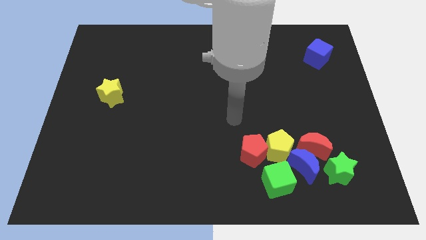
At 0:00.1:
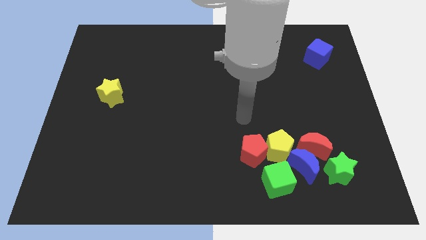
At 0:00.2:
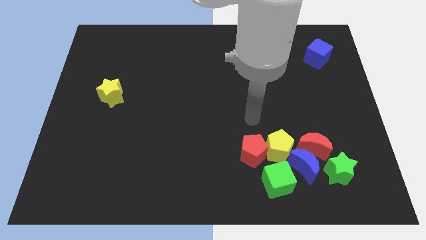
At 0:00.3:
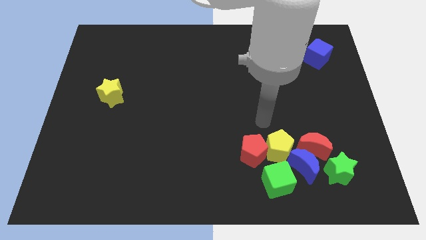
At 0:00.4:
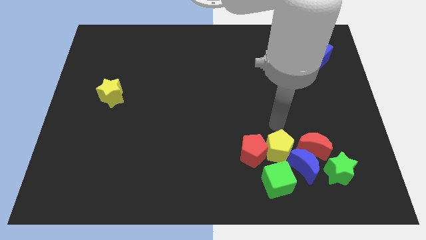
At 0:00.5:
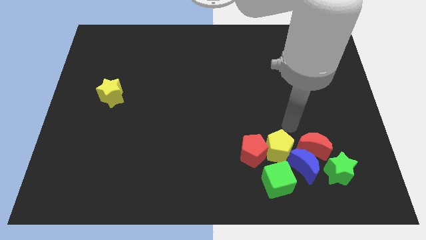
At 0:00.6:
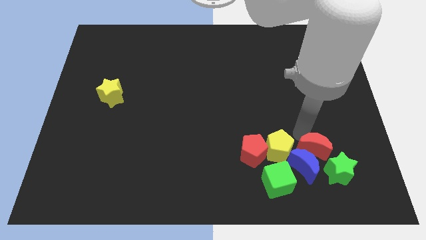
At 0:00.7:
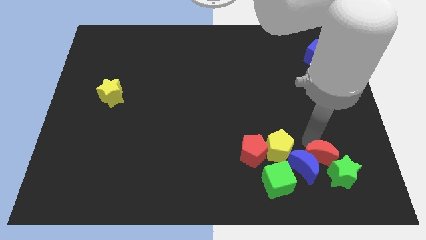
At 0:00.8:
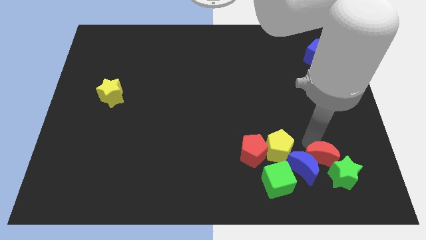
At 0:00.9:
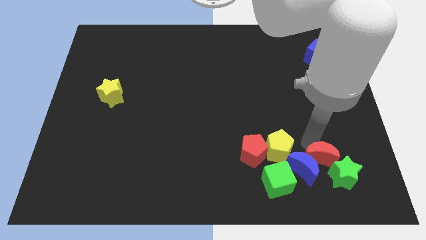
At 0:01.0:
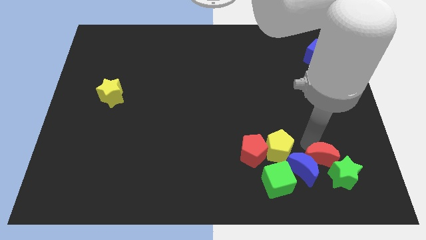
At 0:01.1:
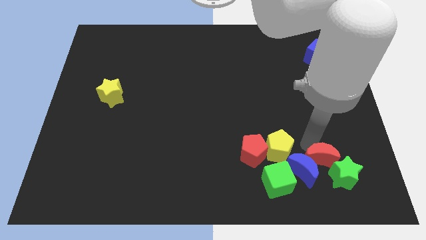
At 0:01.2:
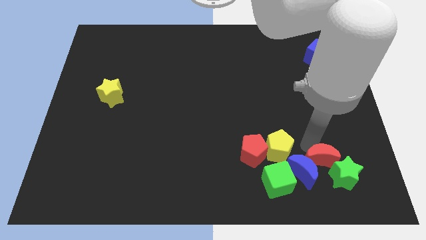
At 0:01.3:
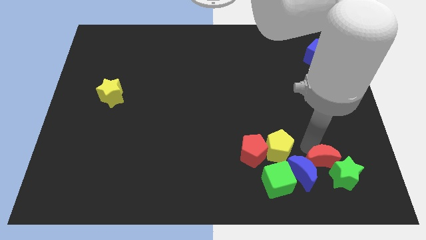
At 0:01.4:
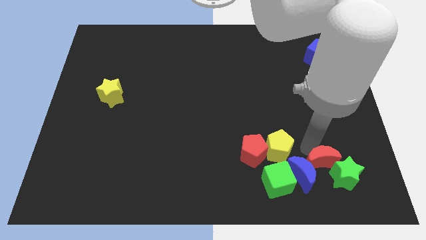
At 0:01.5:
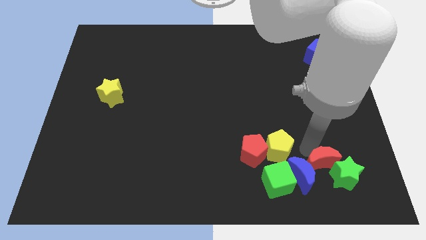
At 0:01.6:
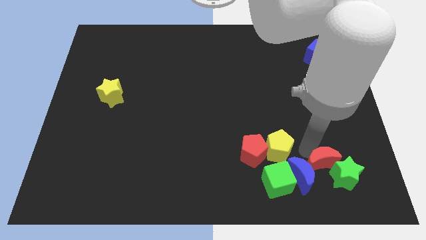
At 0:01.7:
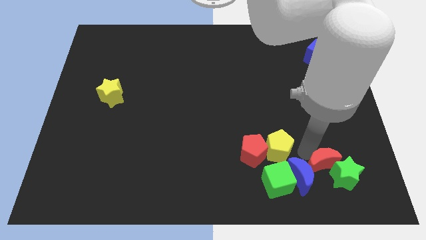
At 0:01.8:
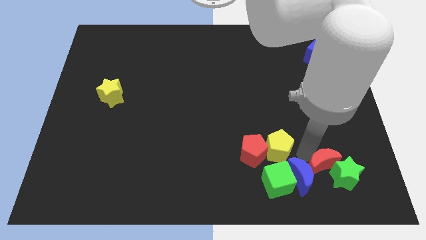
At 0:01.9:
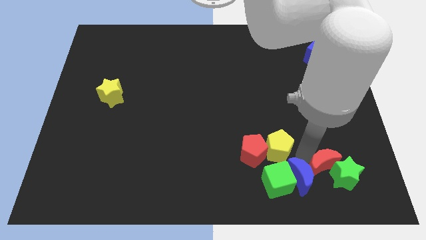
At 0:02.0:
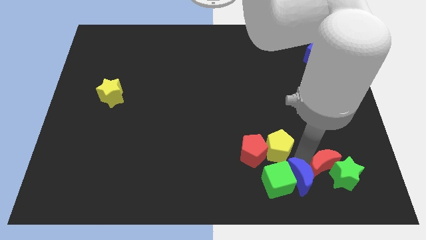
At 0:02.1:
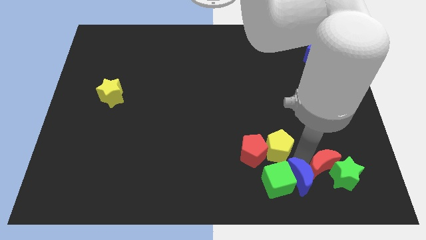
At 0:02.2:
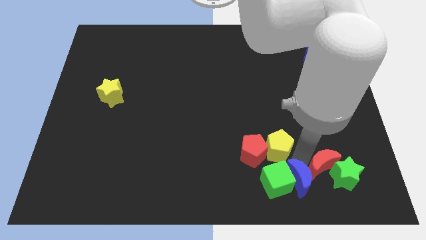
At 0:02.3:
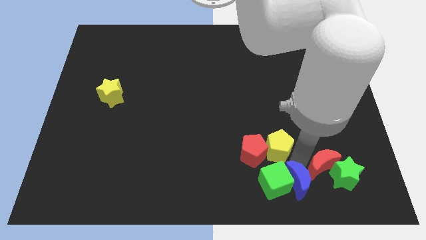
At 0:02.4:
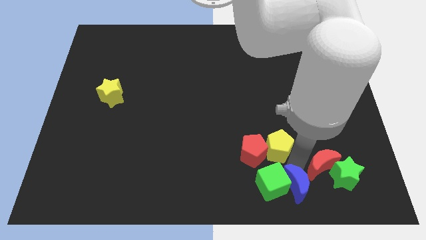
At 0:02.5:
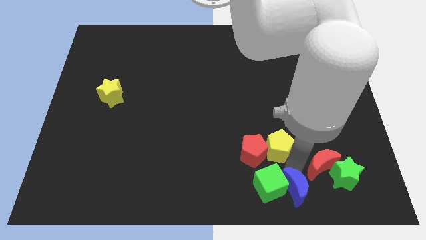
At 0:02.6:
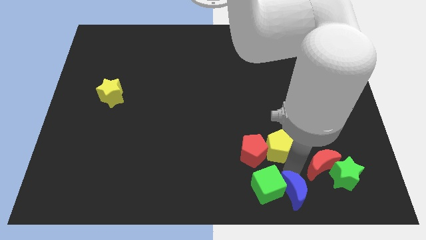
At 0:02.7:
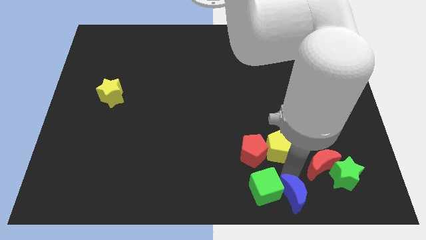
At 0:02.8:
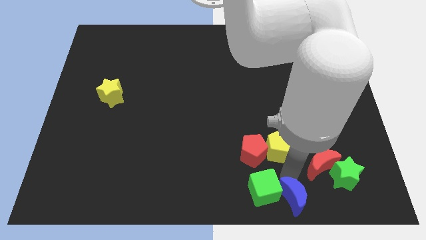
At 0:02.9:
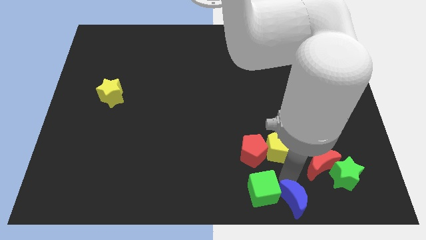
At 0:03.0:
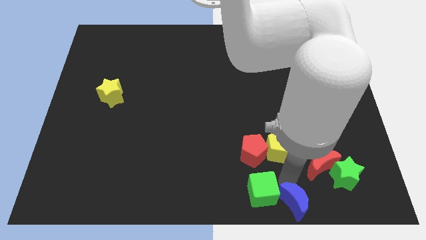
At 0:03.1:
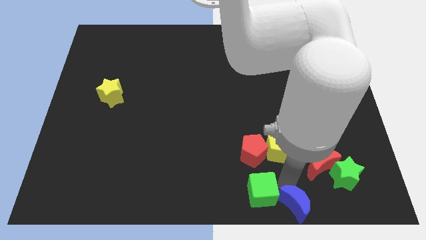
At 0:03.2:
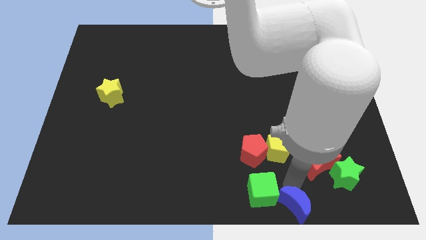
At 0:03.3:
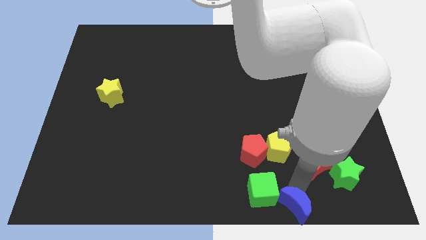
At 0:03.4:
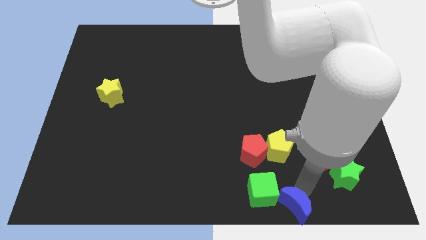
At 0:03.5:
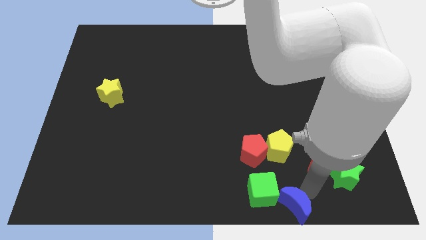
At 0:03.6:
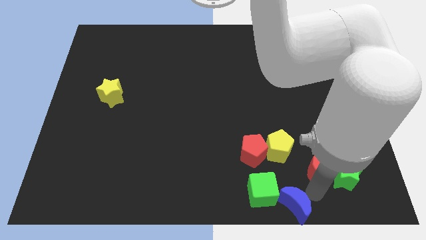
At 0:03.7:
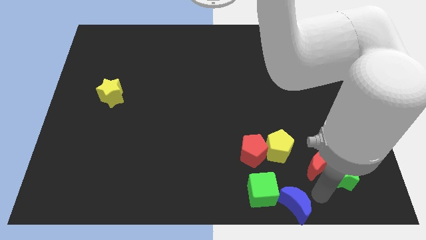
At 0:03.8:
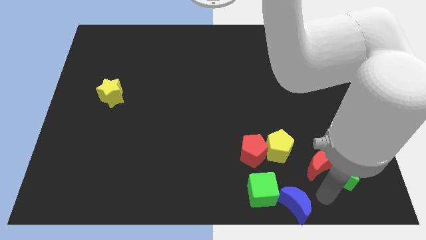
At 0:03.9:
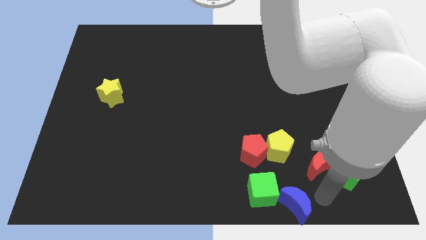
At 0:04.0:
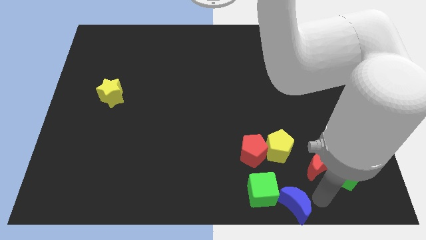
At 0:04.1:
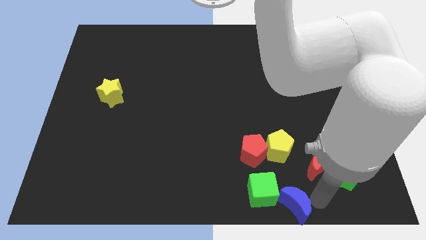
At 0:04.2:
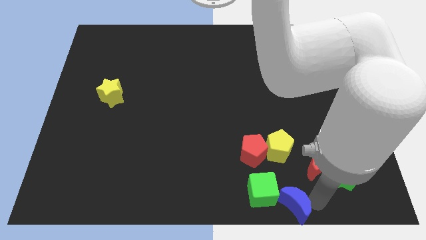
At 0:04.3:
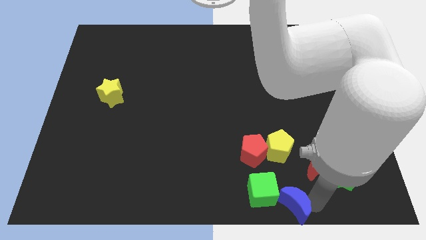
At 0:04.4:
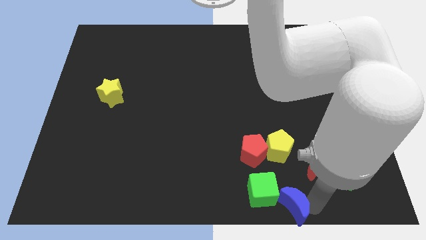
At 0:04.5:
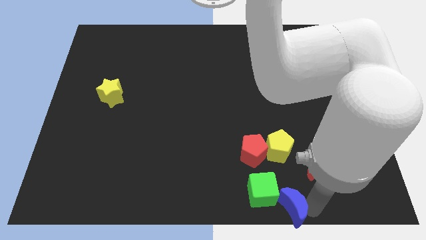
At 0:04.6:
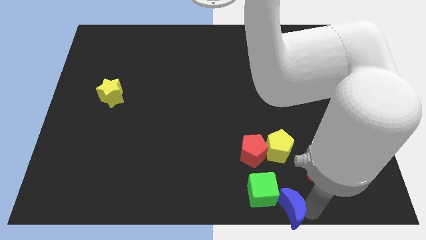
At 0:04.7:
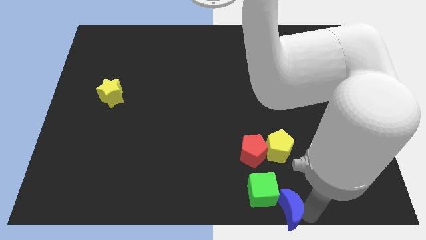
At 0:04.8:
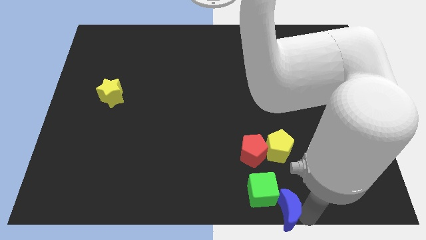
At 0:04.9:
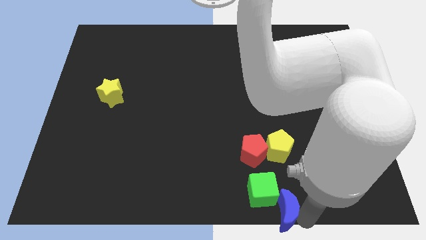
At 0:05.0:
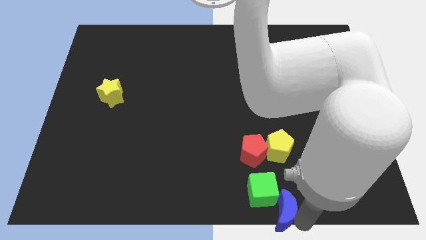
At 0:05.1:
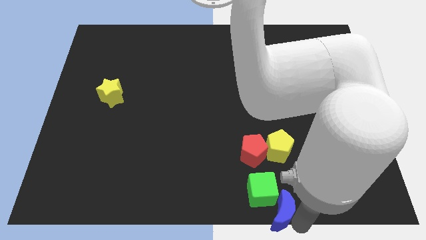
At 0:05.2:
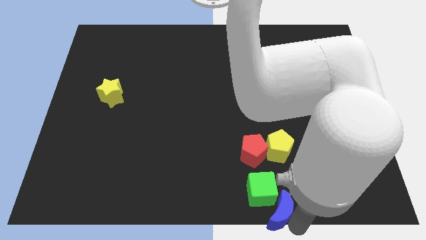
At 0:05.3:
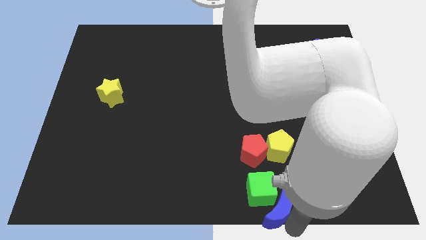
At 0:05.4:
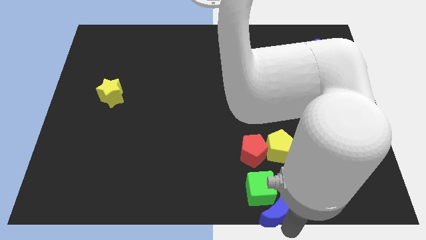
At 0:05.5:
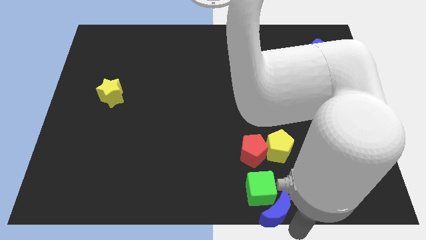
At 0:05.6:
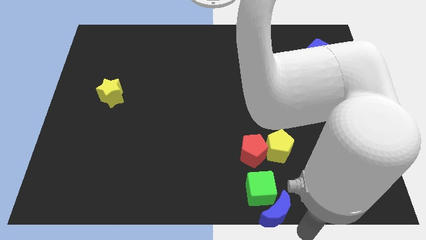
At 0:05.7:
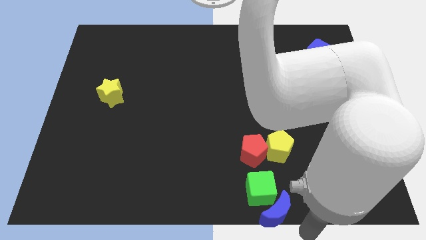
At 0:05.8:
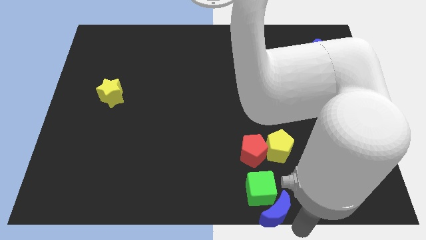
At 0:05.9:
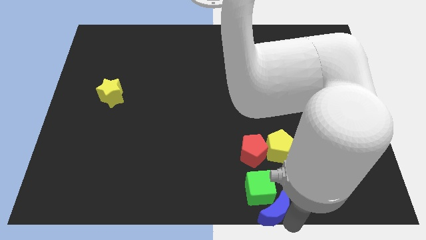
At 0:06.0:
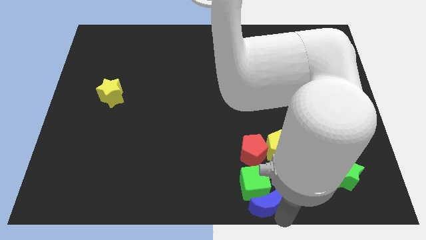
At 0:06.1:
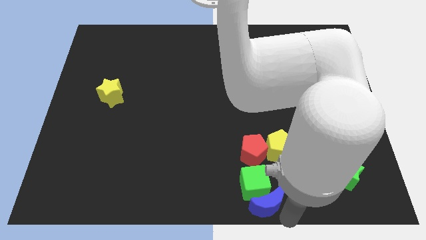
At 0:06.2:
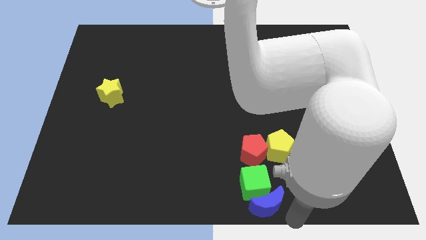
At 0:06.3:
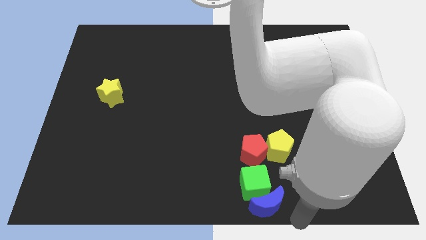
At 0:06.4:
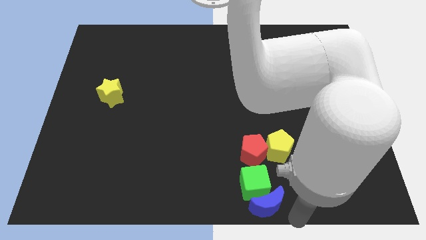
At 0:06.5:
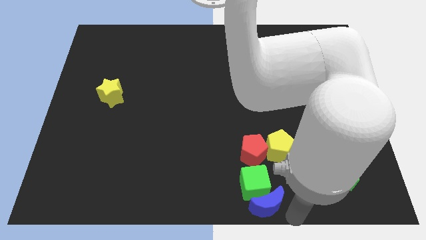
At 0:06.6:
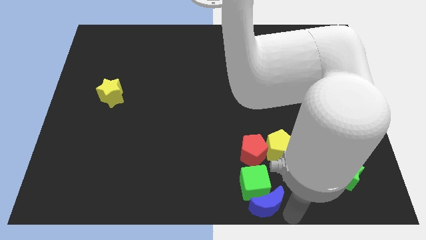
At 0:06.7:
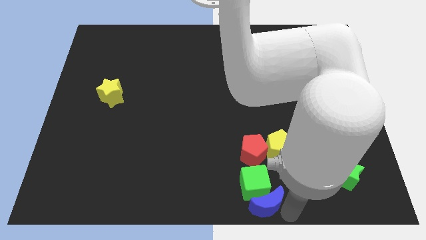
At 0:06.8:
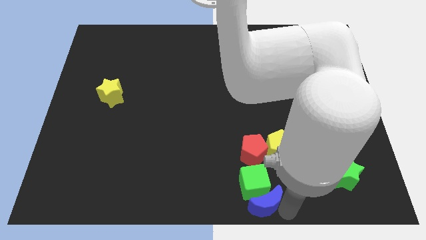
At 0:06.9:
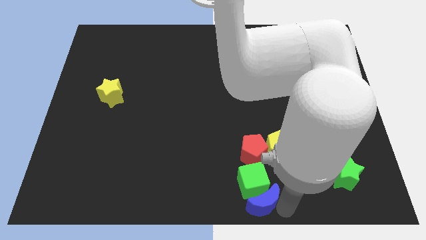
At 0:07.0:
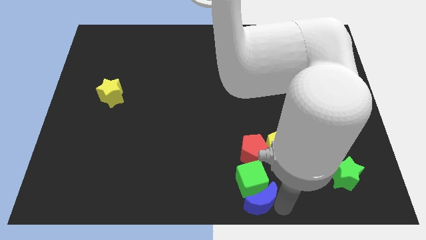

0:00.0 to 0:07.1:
slightly slide the blue moon left
